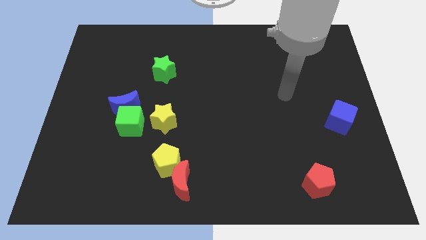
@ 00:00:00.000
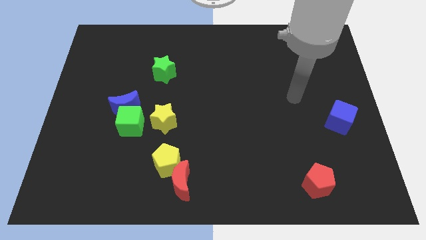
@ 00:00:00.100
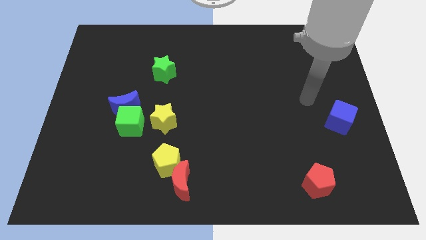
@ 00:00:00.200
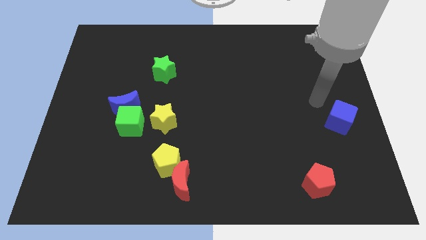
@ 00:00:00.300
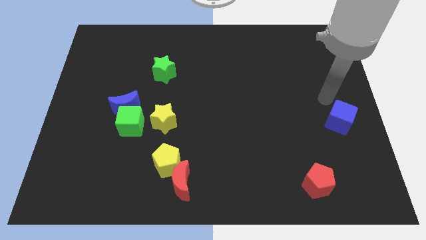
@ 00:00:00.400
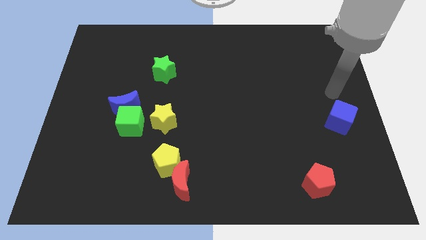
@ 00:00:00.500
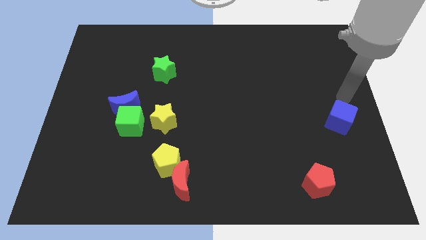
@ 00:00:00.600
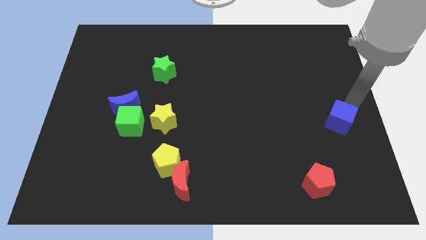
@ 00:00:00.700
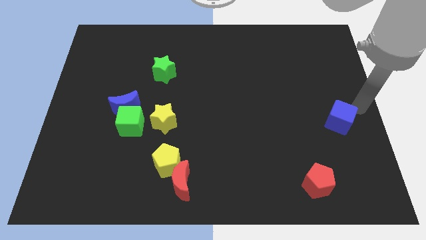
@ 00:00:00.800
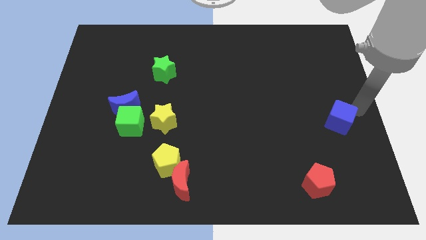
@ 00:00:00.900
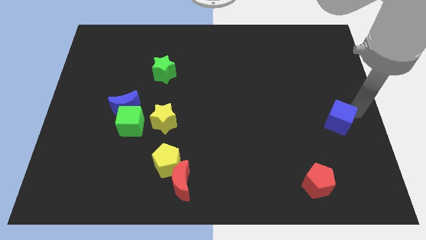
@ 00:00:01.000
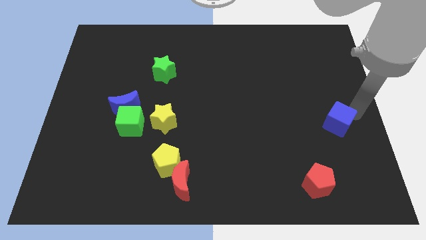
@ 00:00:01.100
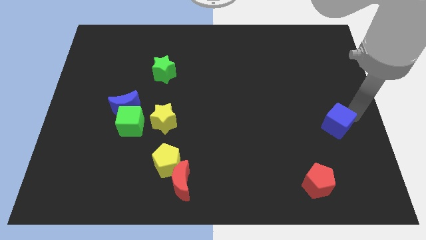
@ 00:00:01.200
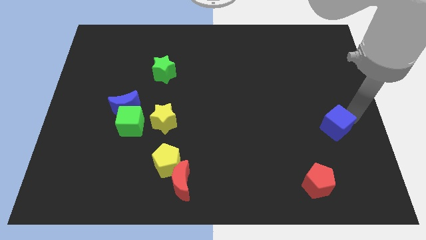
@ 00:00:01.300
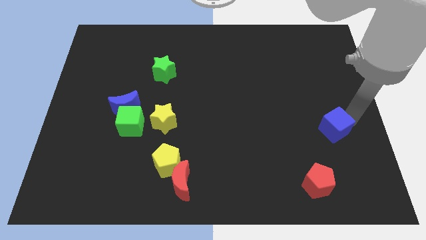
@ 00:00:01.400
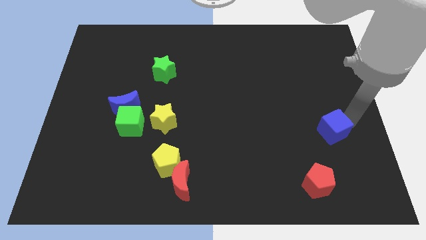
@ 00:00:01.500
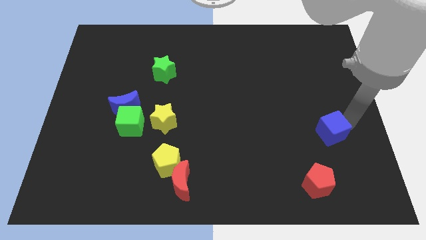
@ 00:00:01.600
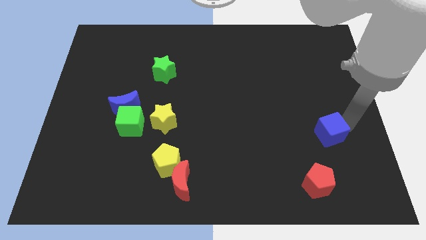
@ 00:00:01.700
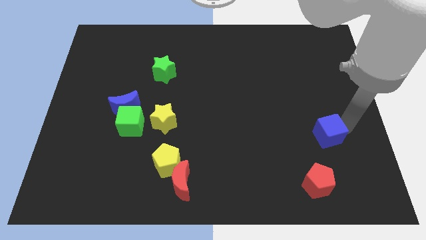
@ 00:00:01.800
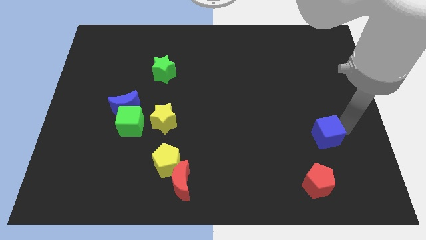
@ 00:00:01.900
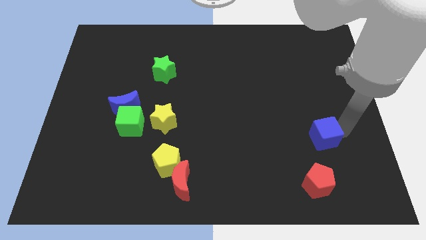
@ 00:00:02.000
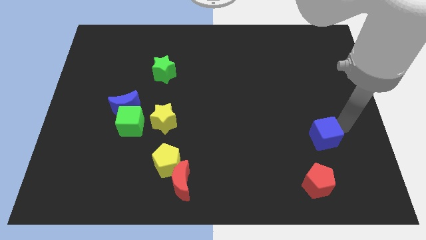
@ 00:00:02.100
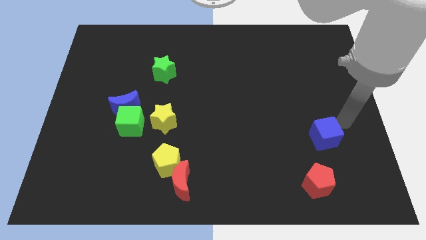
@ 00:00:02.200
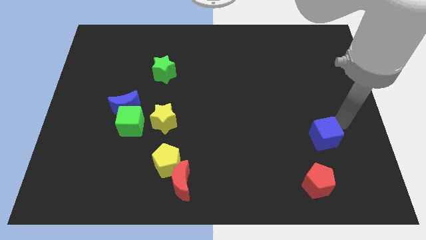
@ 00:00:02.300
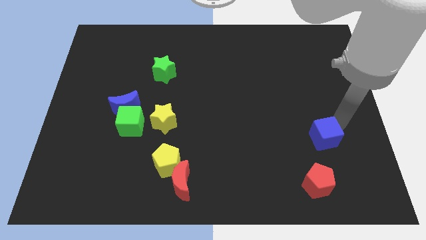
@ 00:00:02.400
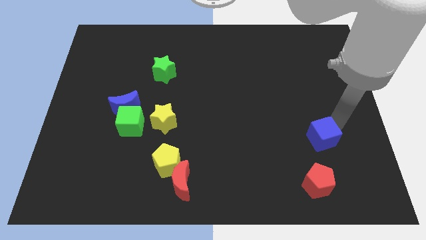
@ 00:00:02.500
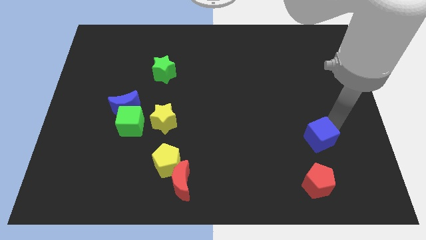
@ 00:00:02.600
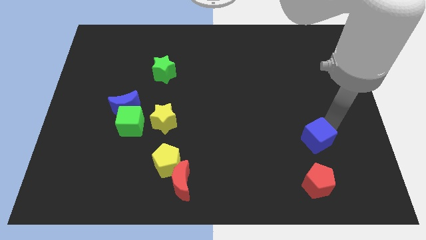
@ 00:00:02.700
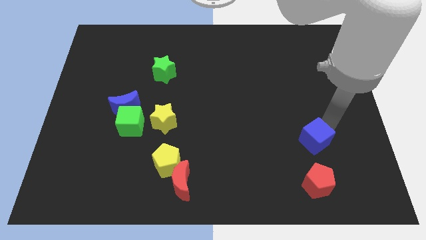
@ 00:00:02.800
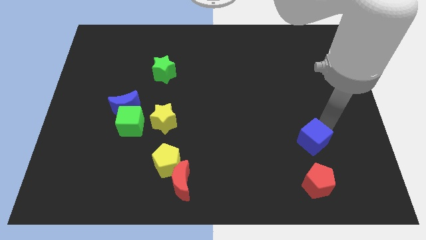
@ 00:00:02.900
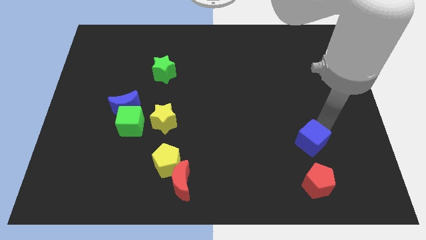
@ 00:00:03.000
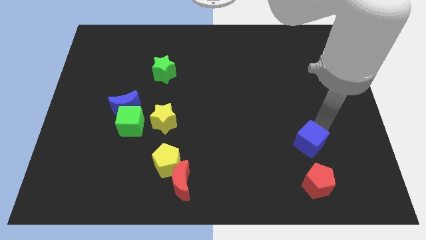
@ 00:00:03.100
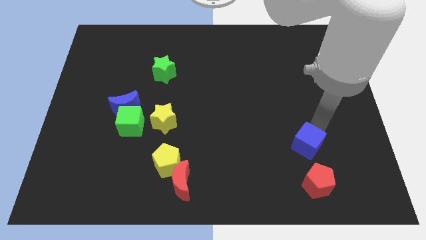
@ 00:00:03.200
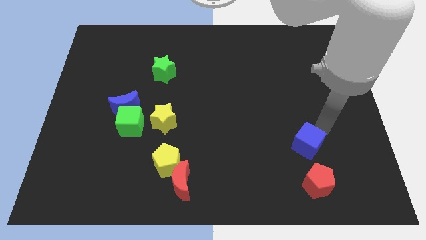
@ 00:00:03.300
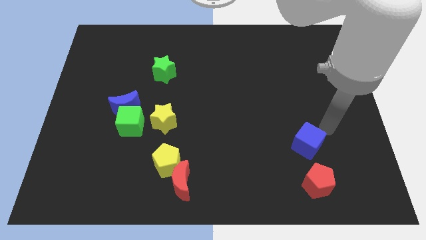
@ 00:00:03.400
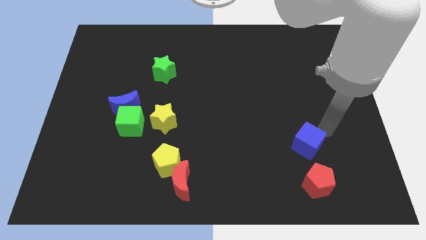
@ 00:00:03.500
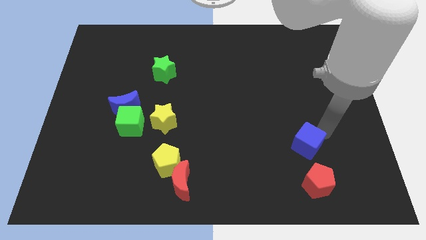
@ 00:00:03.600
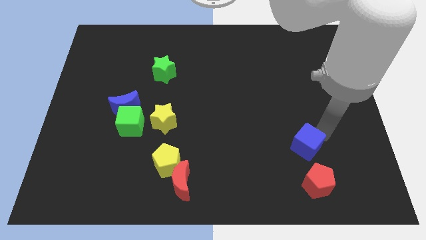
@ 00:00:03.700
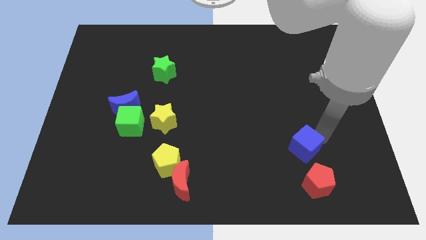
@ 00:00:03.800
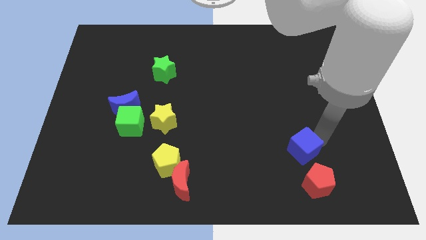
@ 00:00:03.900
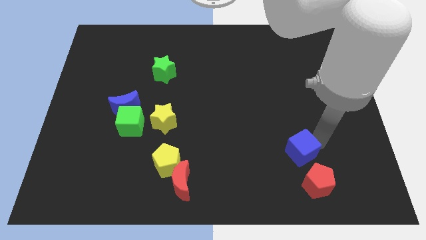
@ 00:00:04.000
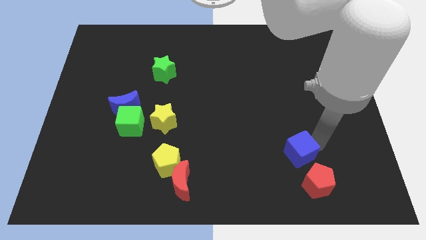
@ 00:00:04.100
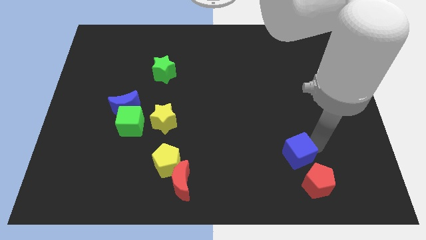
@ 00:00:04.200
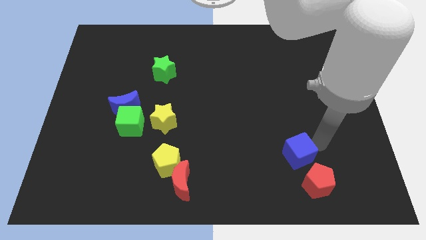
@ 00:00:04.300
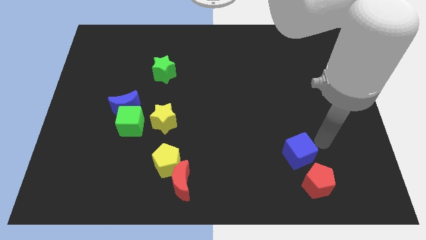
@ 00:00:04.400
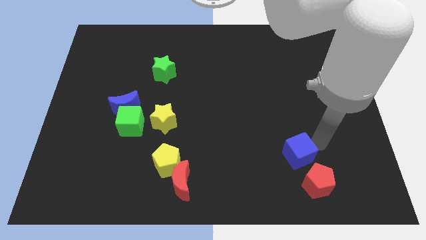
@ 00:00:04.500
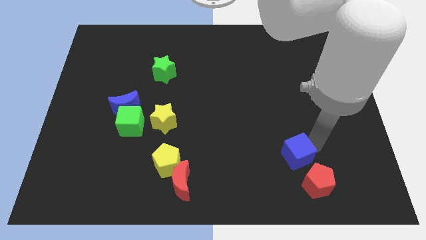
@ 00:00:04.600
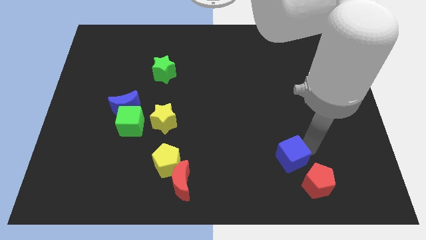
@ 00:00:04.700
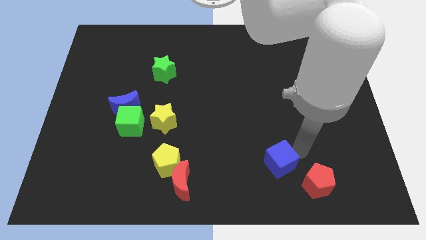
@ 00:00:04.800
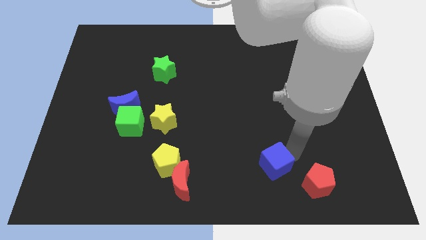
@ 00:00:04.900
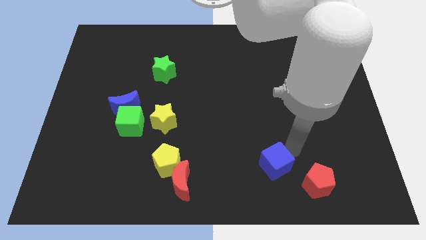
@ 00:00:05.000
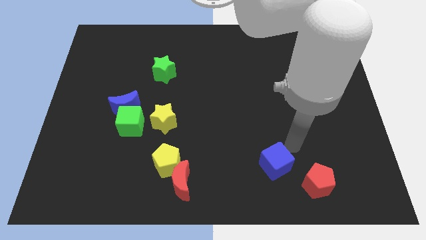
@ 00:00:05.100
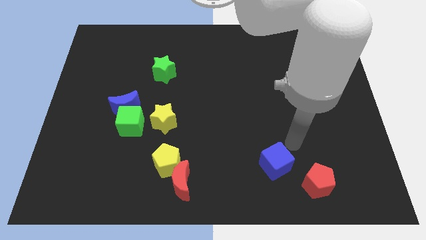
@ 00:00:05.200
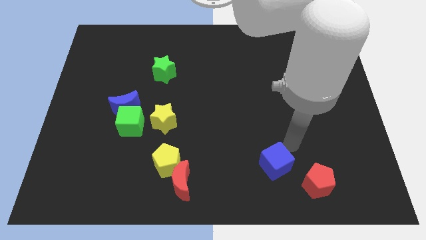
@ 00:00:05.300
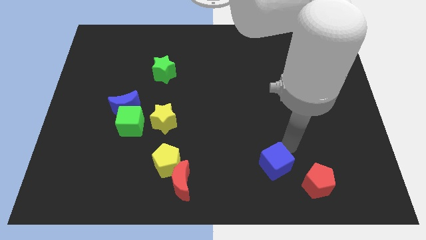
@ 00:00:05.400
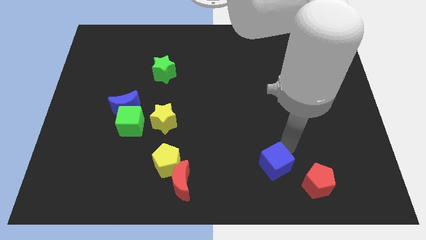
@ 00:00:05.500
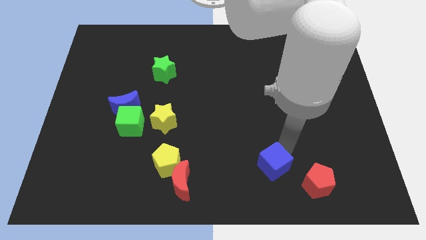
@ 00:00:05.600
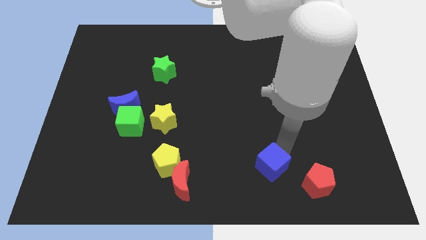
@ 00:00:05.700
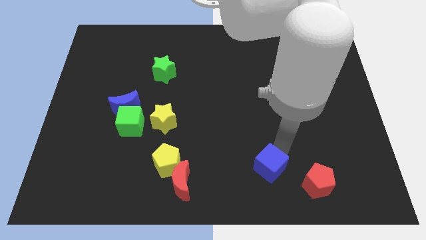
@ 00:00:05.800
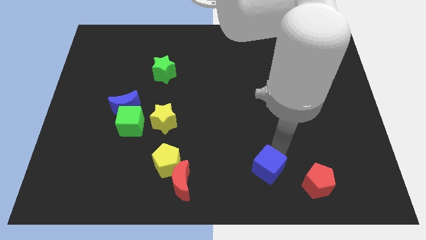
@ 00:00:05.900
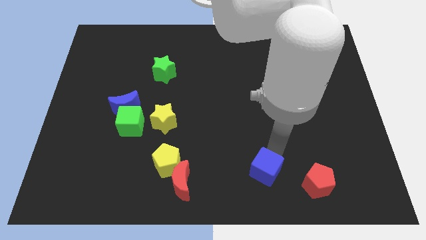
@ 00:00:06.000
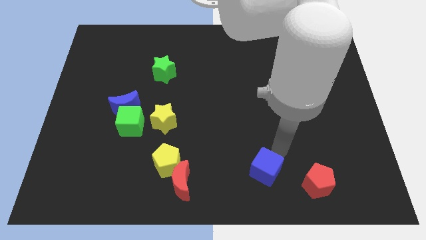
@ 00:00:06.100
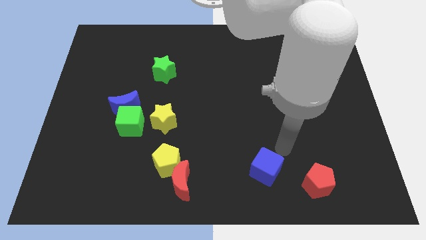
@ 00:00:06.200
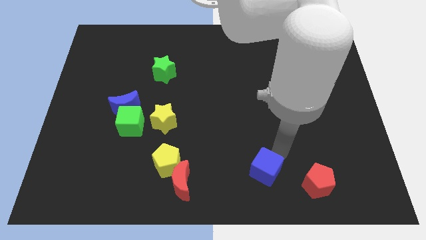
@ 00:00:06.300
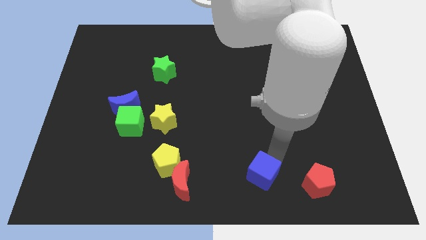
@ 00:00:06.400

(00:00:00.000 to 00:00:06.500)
put the blue cube to the bottom
